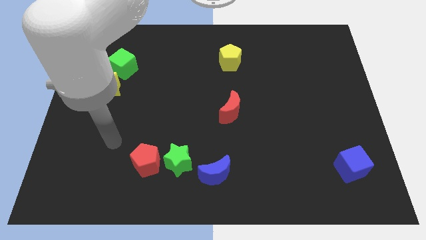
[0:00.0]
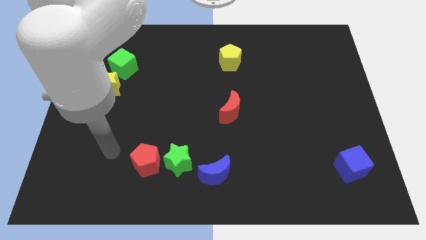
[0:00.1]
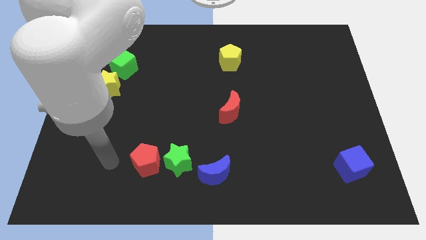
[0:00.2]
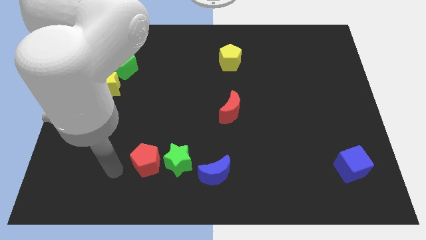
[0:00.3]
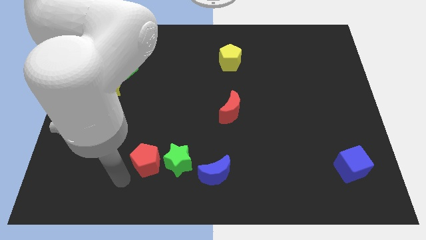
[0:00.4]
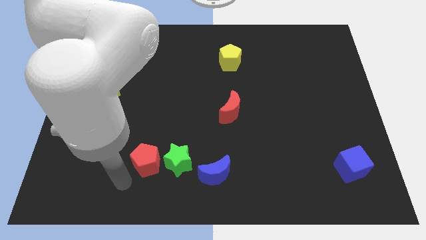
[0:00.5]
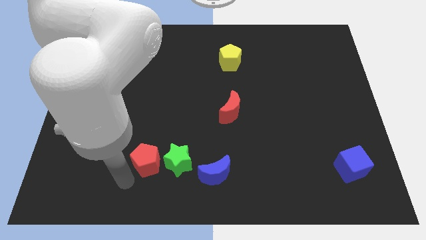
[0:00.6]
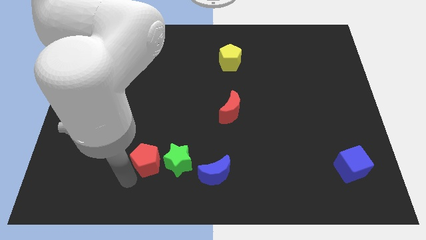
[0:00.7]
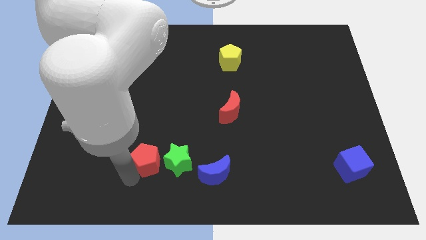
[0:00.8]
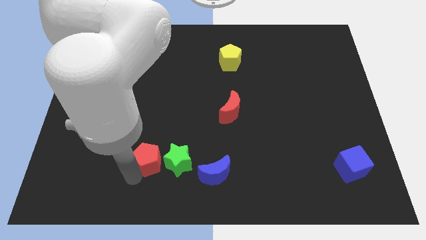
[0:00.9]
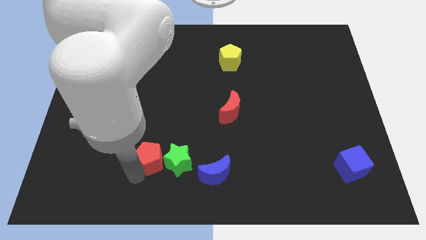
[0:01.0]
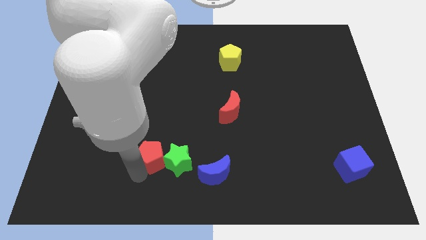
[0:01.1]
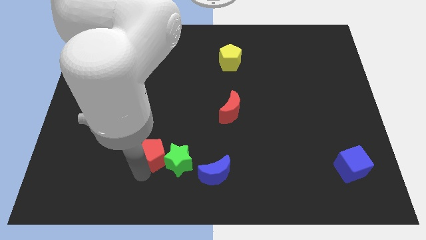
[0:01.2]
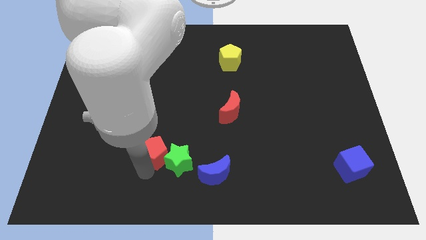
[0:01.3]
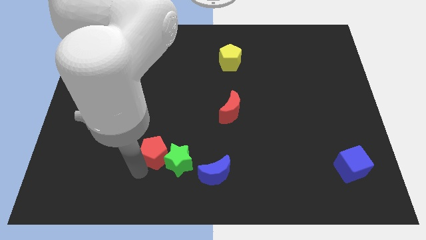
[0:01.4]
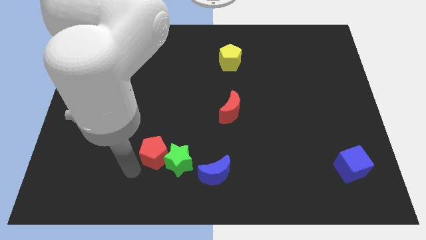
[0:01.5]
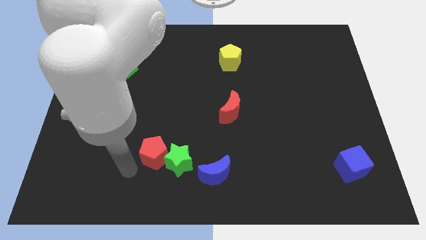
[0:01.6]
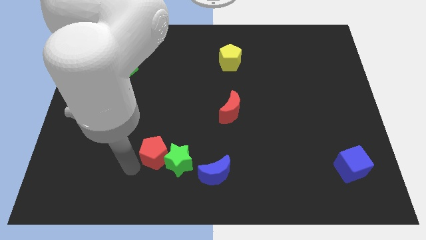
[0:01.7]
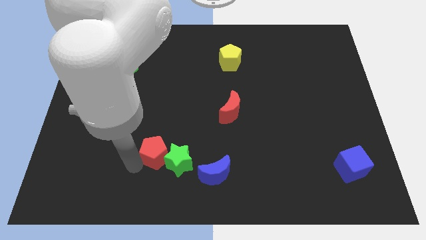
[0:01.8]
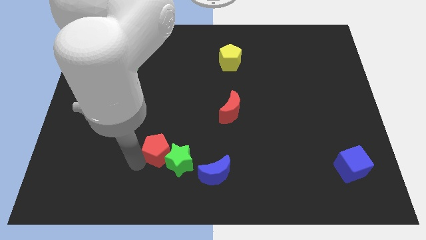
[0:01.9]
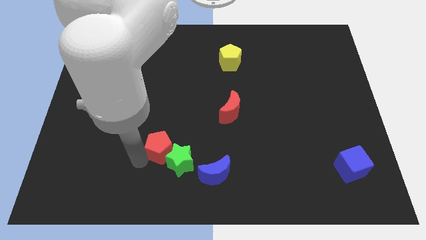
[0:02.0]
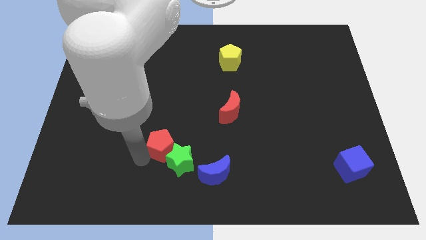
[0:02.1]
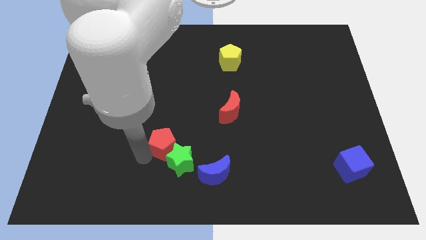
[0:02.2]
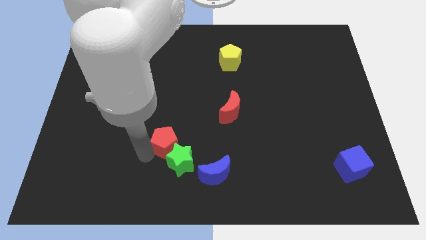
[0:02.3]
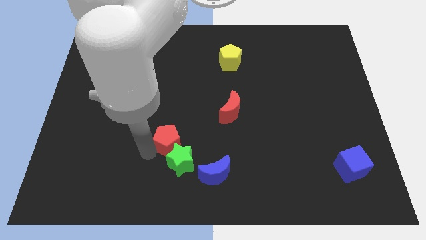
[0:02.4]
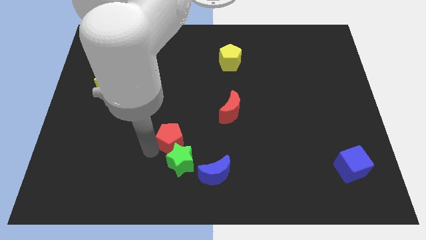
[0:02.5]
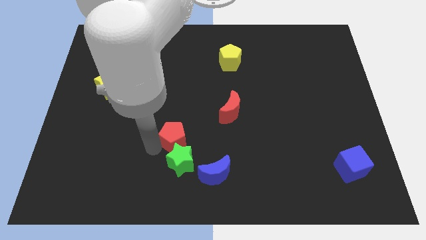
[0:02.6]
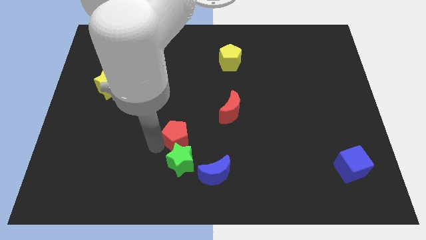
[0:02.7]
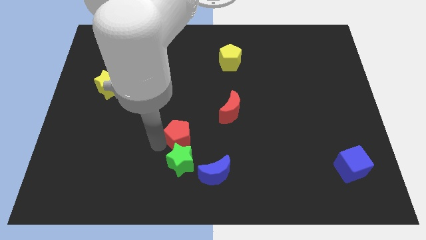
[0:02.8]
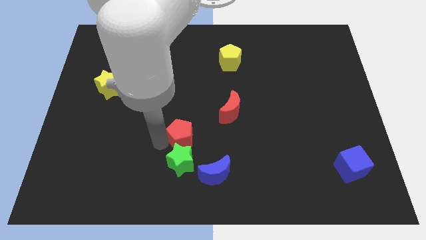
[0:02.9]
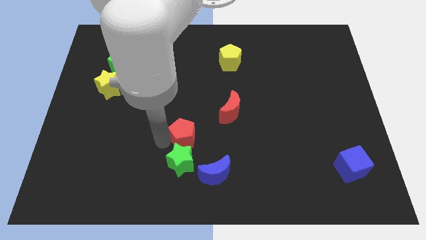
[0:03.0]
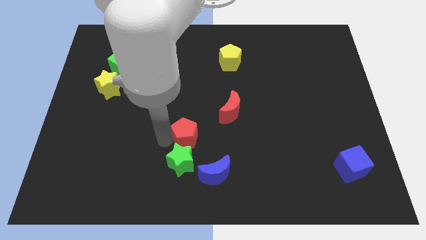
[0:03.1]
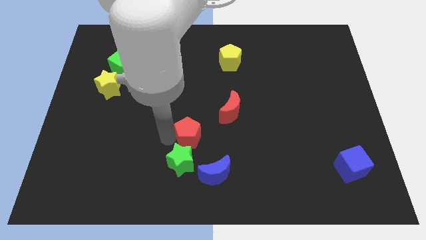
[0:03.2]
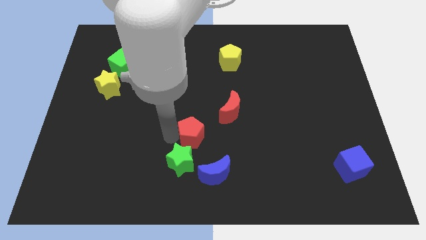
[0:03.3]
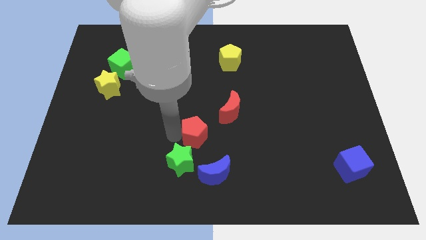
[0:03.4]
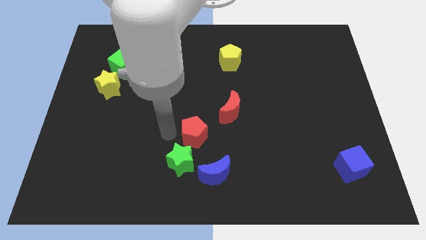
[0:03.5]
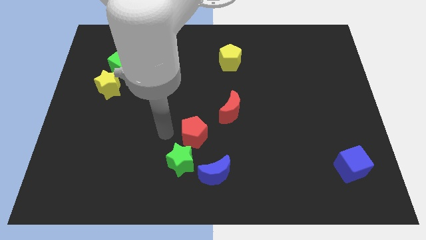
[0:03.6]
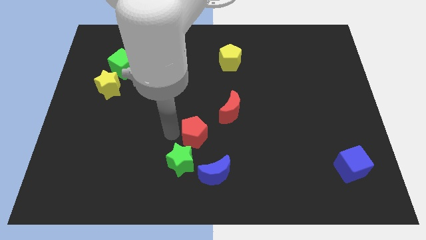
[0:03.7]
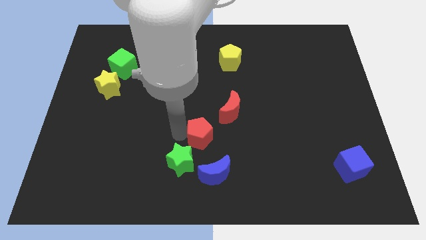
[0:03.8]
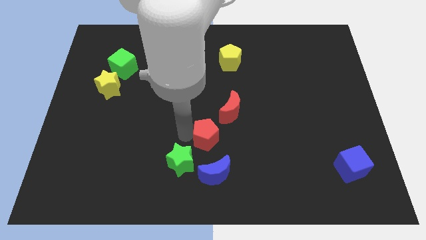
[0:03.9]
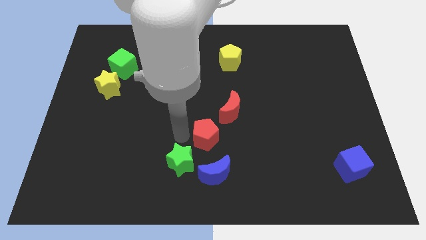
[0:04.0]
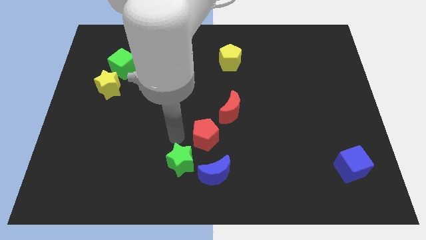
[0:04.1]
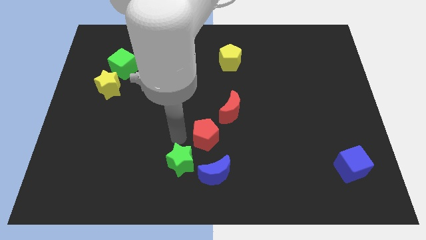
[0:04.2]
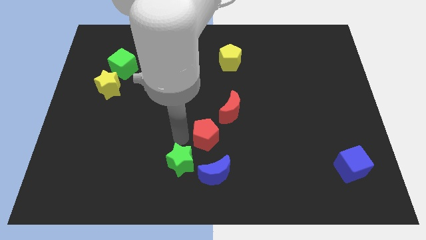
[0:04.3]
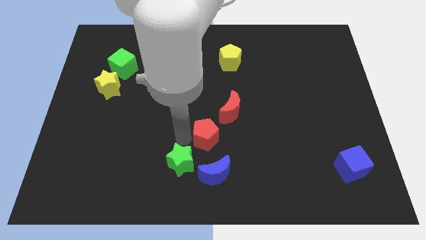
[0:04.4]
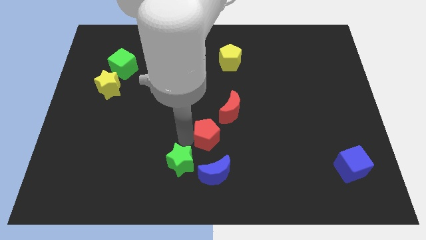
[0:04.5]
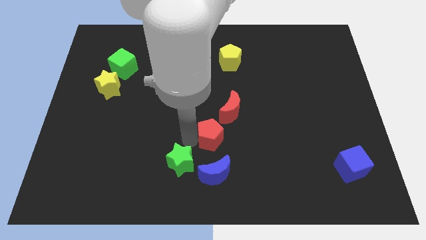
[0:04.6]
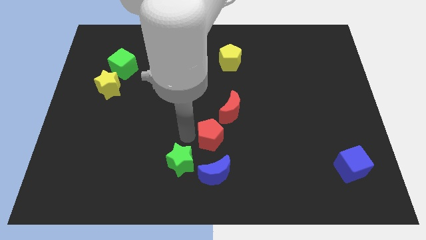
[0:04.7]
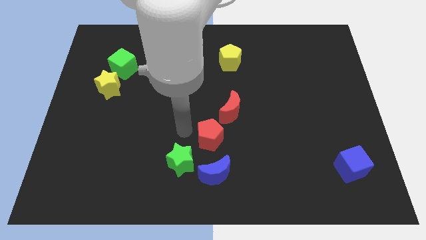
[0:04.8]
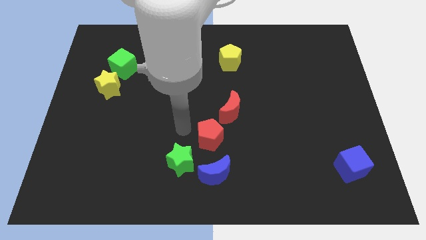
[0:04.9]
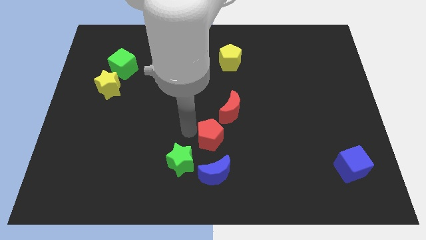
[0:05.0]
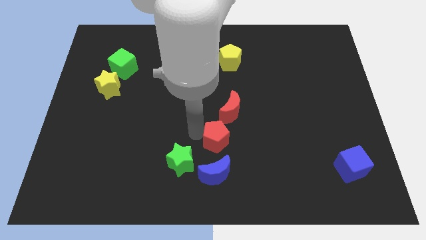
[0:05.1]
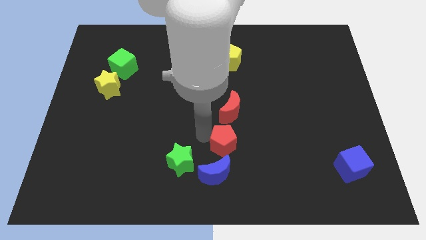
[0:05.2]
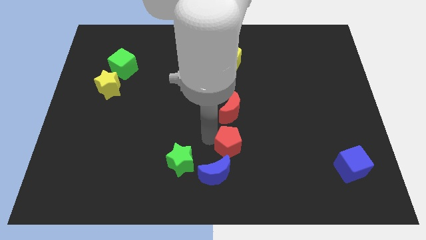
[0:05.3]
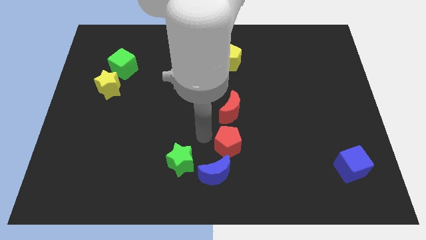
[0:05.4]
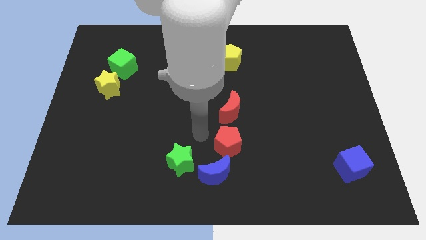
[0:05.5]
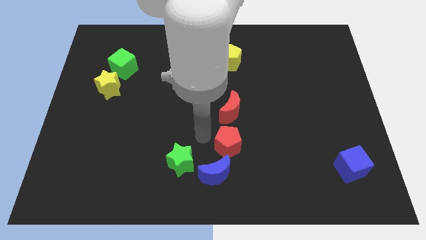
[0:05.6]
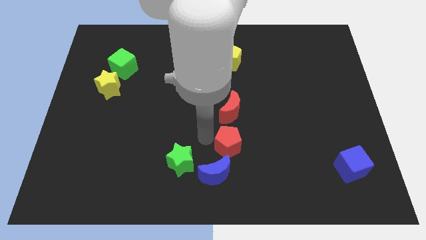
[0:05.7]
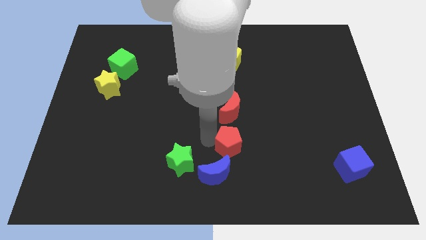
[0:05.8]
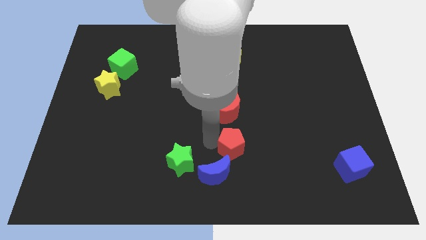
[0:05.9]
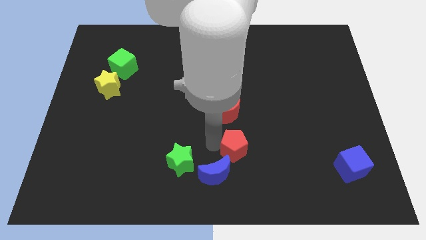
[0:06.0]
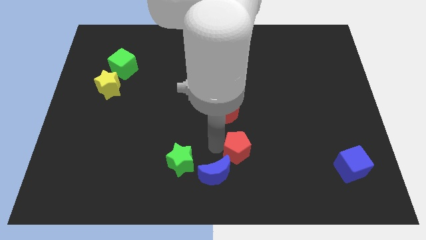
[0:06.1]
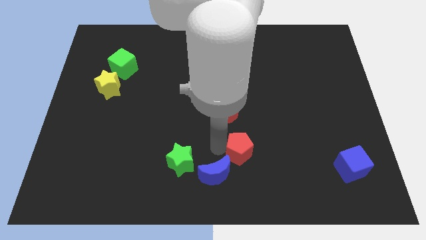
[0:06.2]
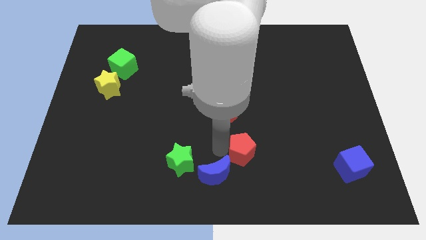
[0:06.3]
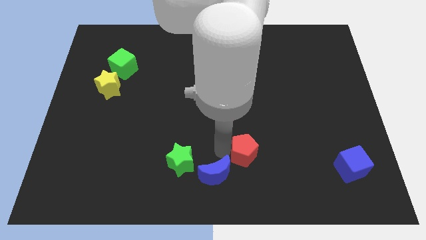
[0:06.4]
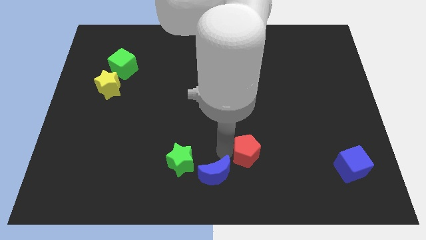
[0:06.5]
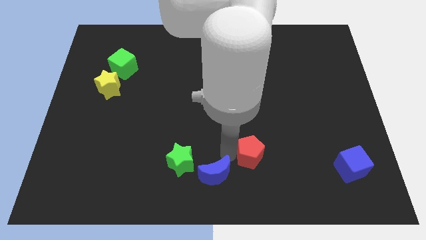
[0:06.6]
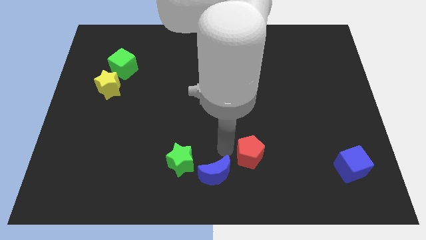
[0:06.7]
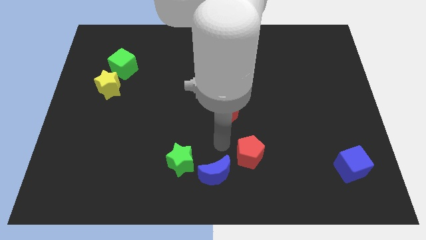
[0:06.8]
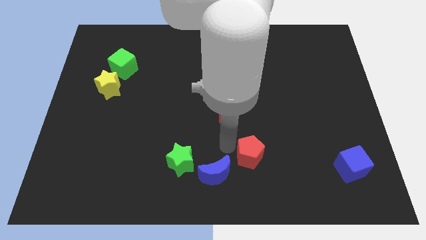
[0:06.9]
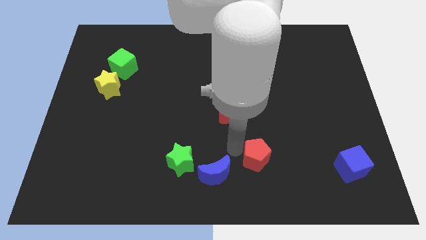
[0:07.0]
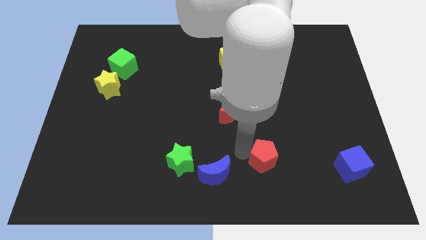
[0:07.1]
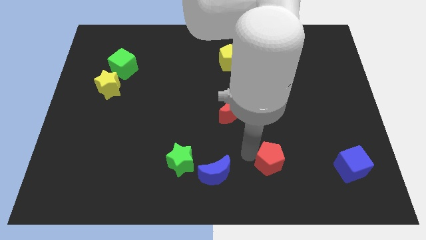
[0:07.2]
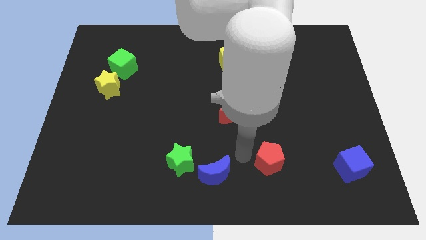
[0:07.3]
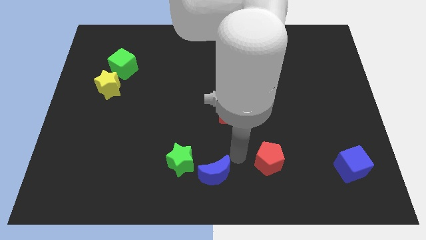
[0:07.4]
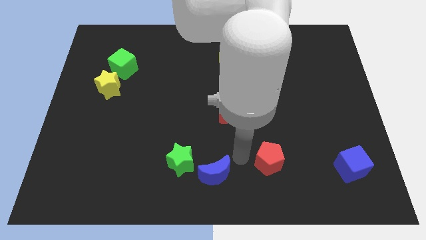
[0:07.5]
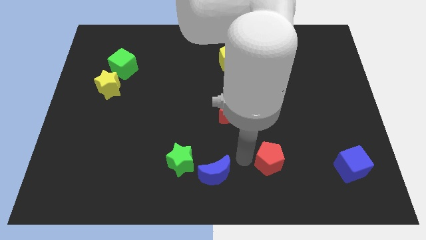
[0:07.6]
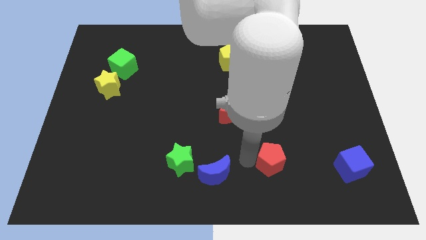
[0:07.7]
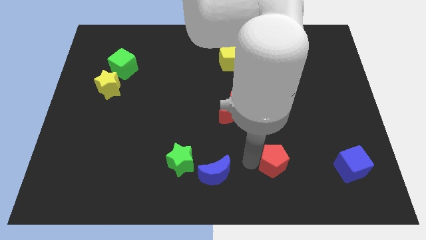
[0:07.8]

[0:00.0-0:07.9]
push the red pentagon to the left of the blue cube
